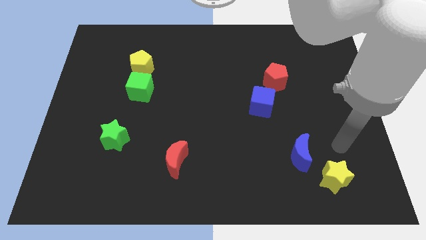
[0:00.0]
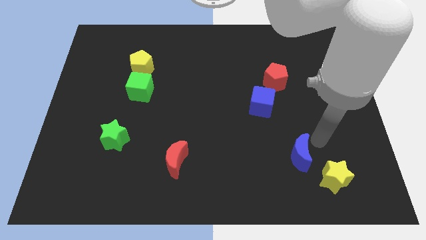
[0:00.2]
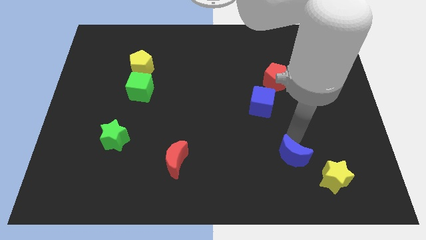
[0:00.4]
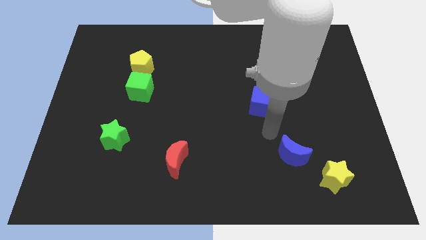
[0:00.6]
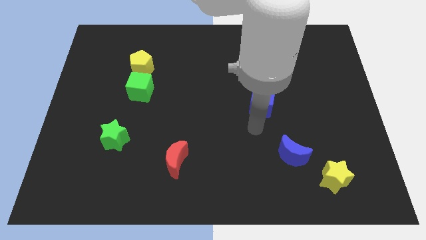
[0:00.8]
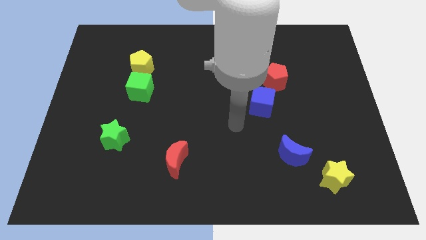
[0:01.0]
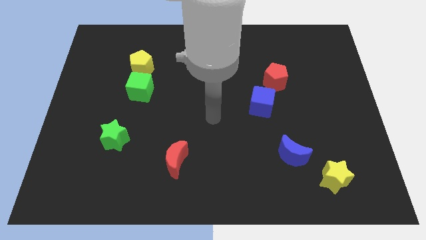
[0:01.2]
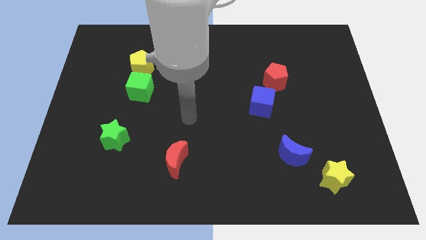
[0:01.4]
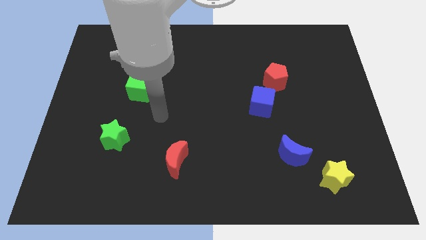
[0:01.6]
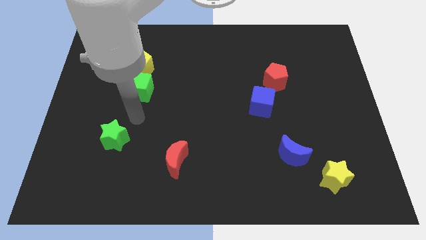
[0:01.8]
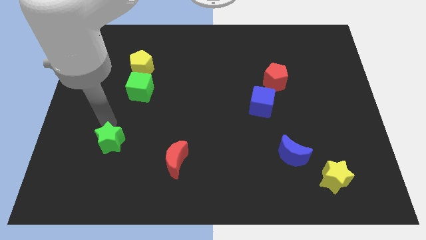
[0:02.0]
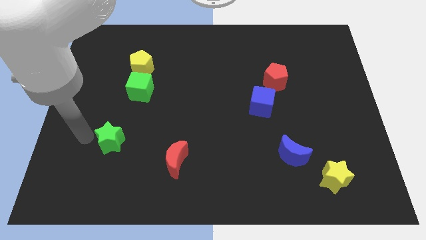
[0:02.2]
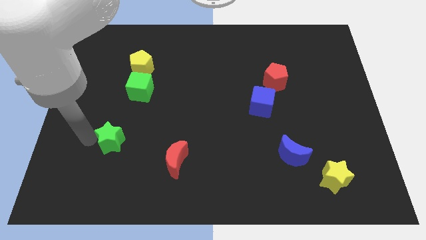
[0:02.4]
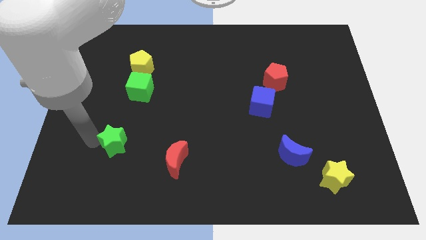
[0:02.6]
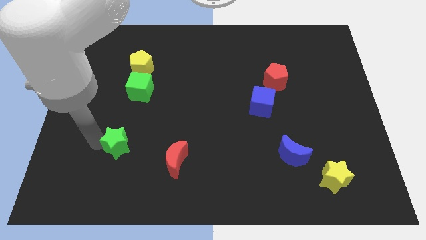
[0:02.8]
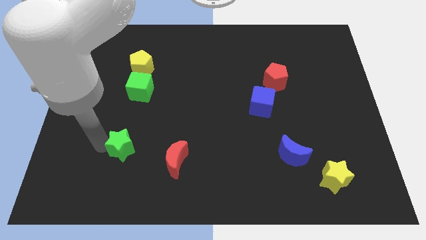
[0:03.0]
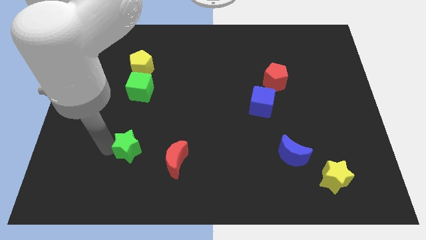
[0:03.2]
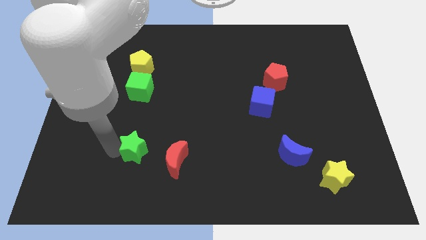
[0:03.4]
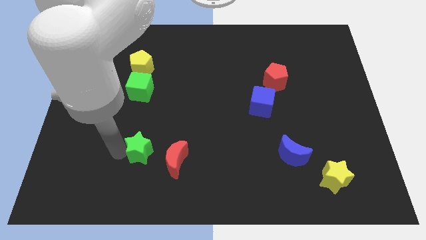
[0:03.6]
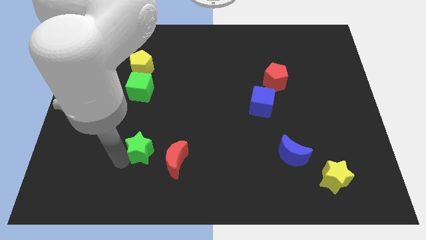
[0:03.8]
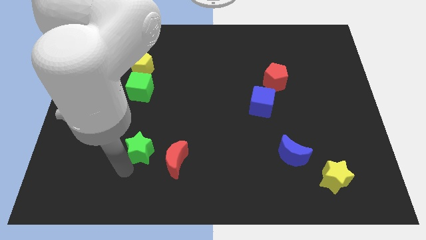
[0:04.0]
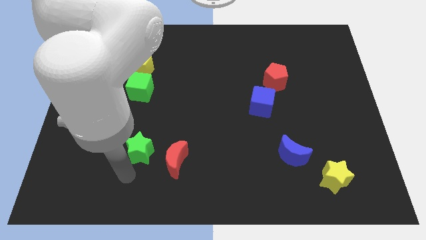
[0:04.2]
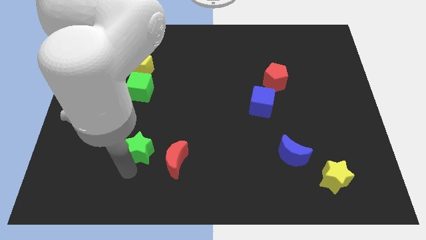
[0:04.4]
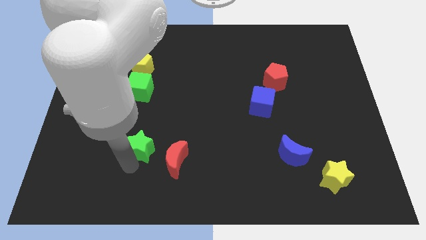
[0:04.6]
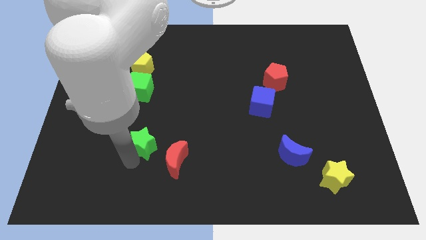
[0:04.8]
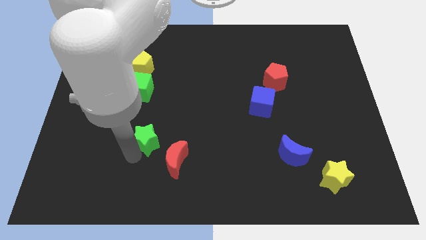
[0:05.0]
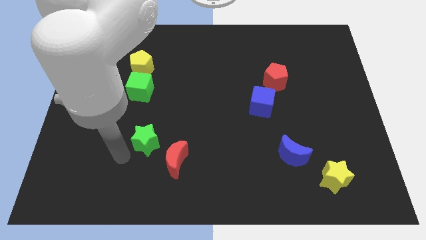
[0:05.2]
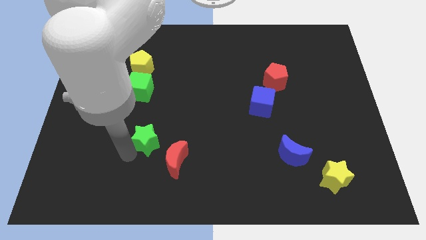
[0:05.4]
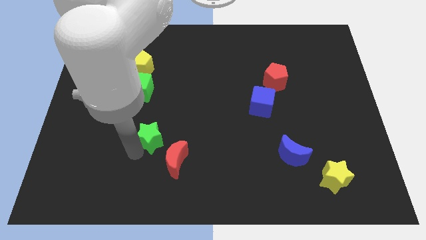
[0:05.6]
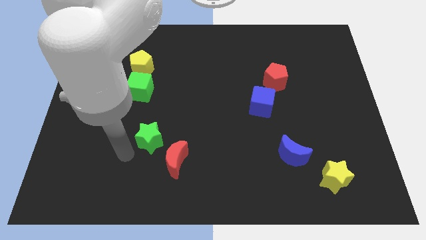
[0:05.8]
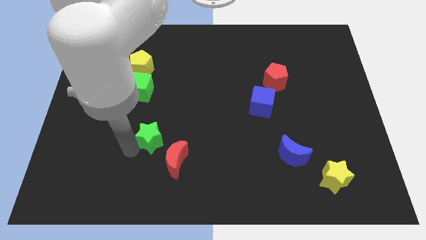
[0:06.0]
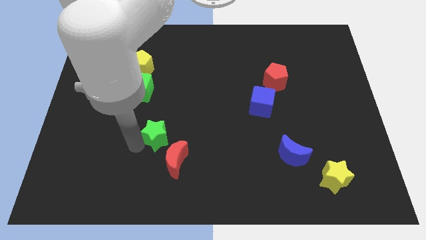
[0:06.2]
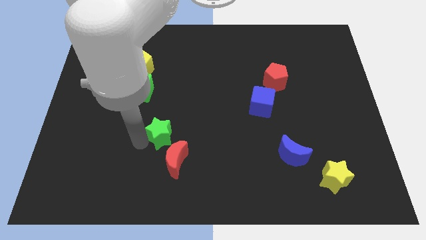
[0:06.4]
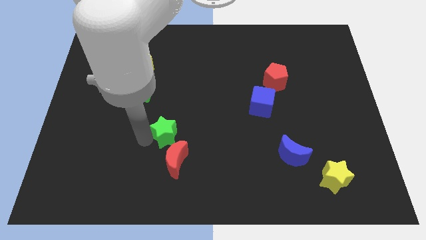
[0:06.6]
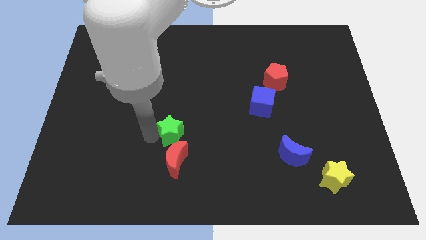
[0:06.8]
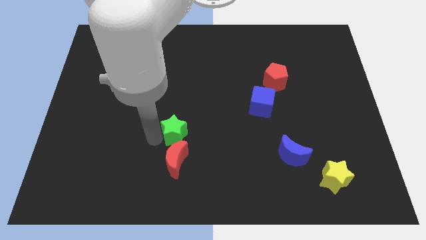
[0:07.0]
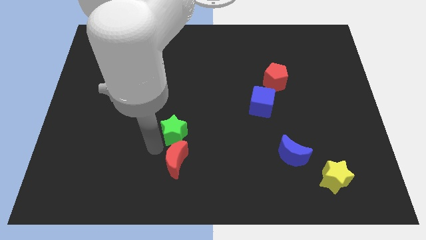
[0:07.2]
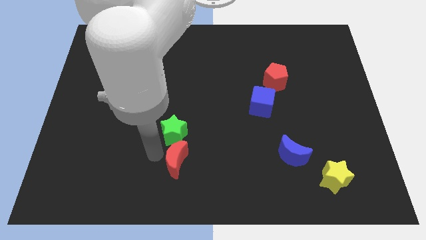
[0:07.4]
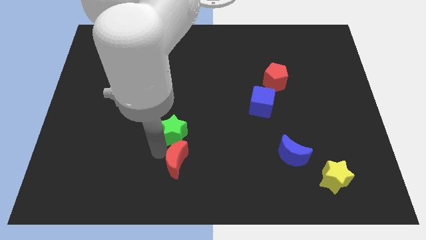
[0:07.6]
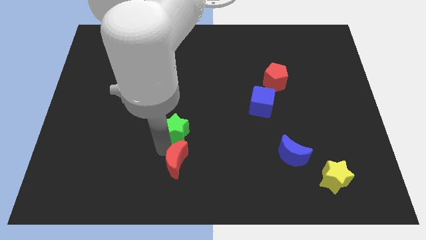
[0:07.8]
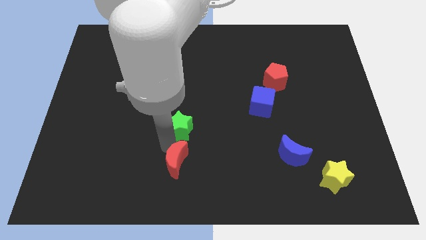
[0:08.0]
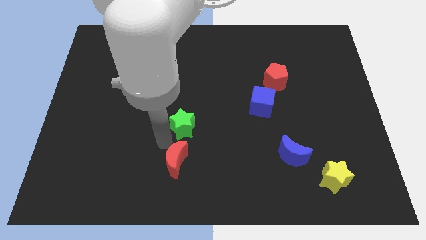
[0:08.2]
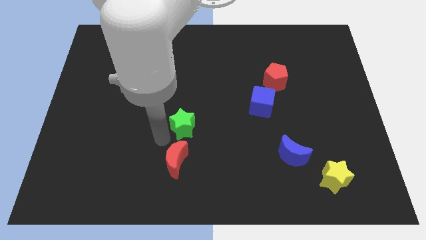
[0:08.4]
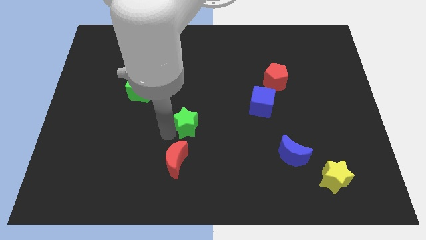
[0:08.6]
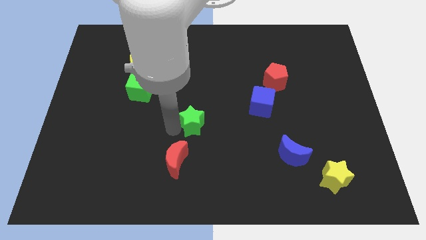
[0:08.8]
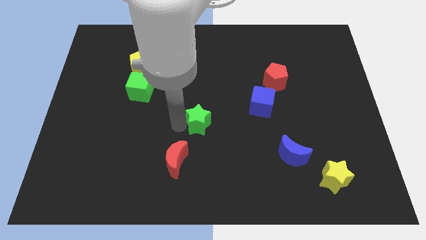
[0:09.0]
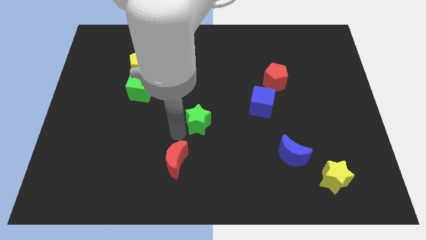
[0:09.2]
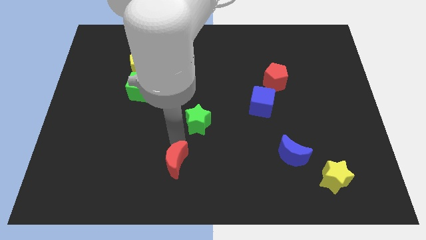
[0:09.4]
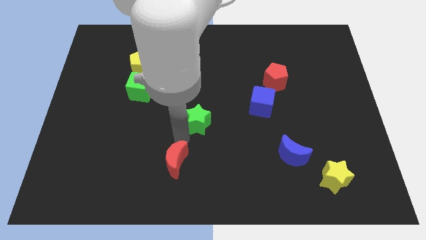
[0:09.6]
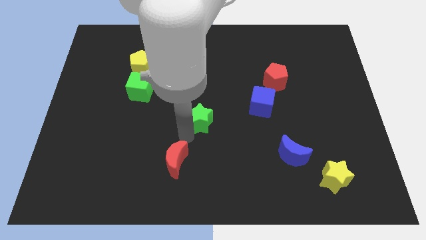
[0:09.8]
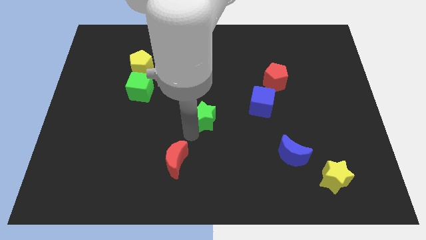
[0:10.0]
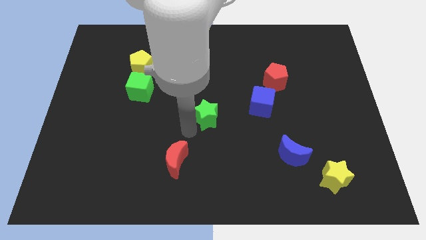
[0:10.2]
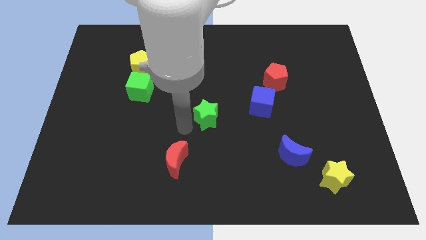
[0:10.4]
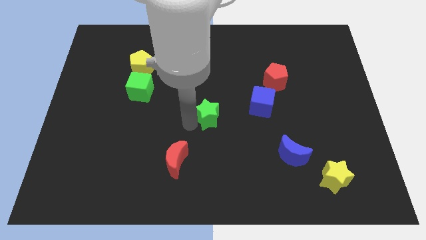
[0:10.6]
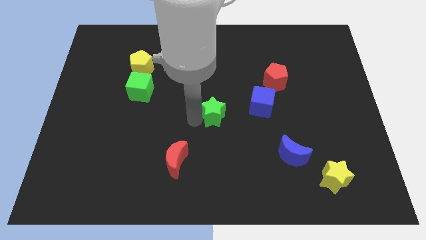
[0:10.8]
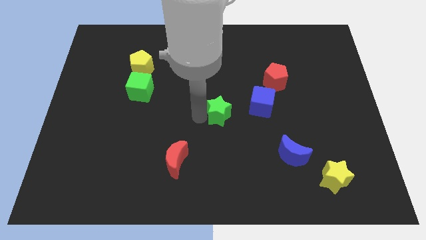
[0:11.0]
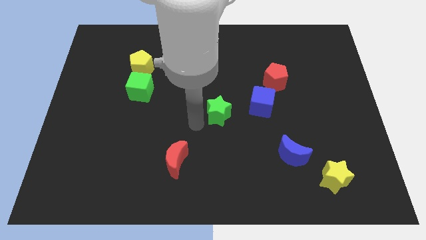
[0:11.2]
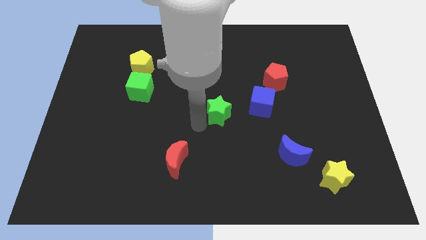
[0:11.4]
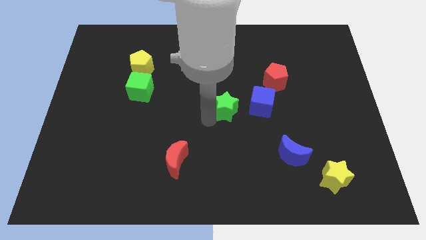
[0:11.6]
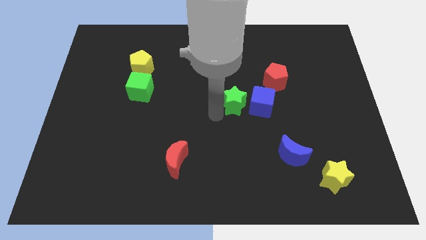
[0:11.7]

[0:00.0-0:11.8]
put the green star towards the blue cube

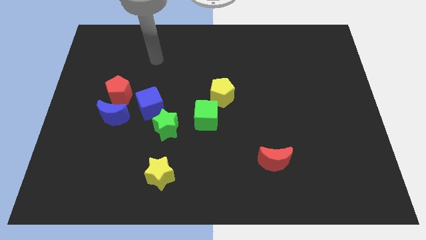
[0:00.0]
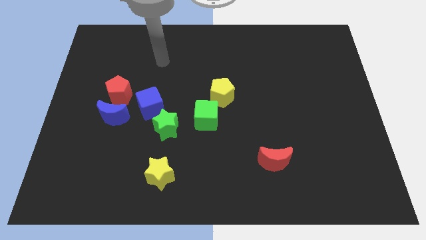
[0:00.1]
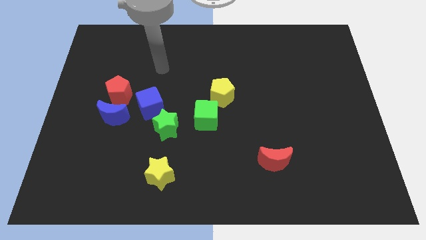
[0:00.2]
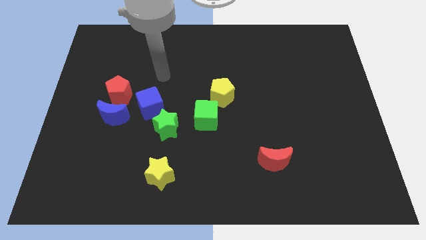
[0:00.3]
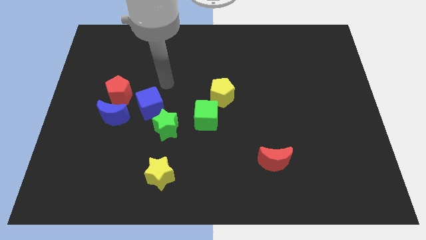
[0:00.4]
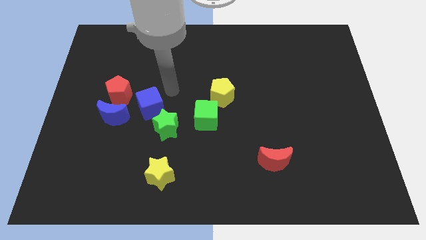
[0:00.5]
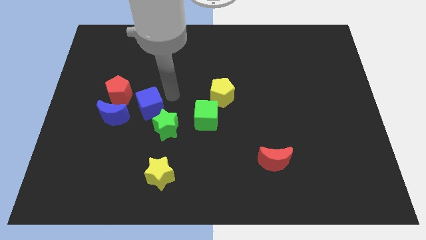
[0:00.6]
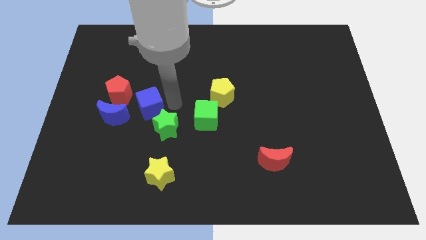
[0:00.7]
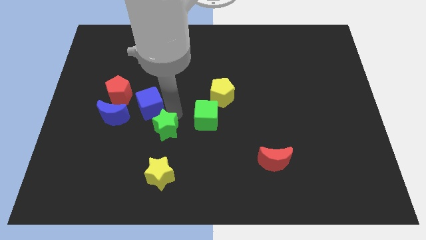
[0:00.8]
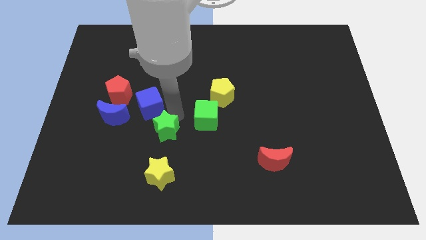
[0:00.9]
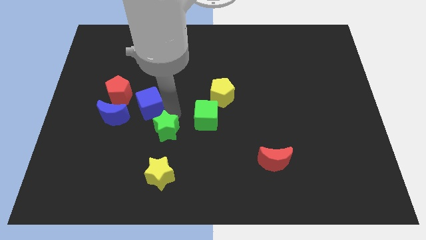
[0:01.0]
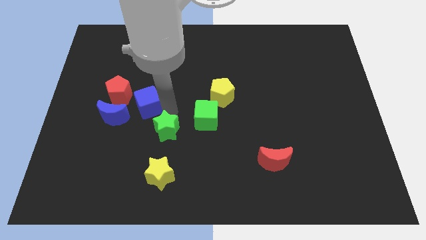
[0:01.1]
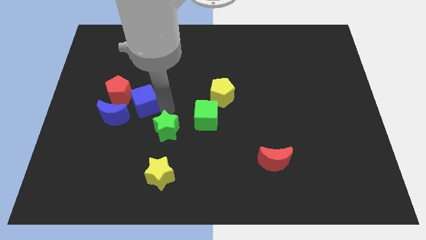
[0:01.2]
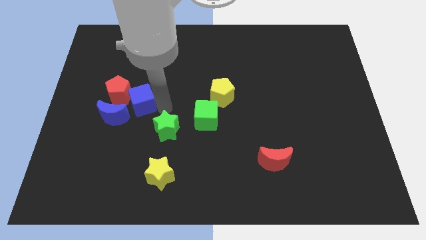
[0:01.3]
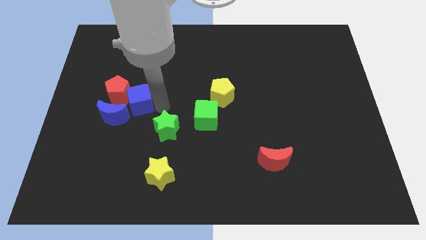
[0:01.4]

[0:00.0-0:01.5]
put the blue cube towards the red pentagon
